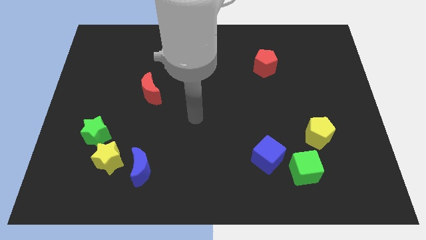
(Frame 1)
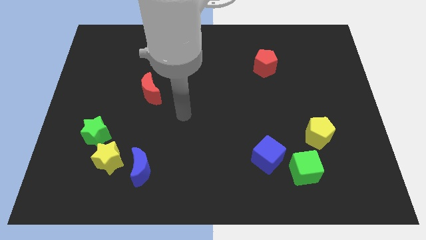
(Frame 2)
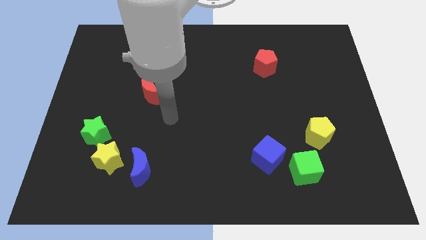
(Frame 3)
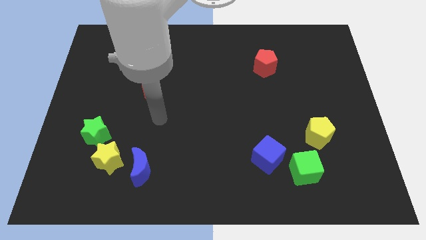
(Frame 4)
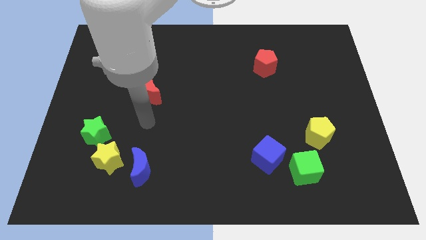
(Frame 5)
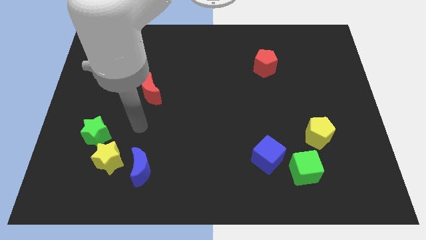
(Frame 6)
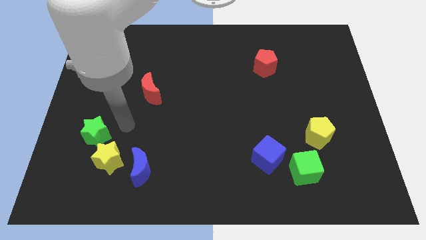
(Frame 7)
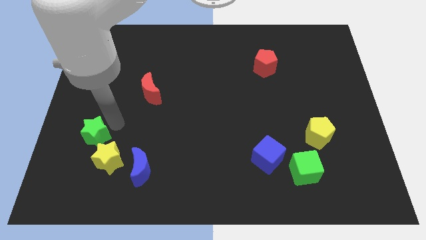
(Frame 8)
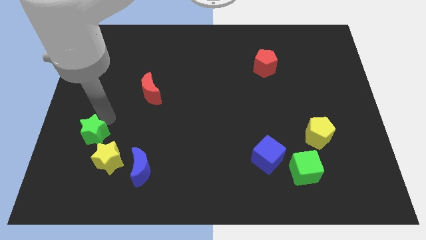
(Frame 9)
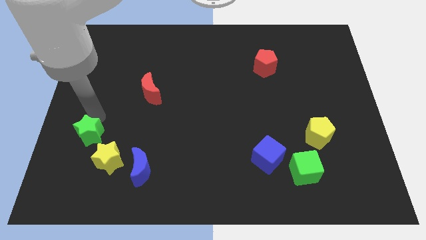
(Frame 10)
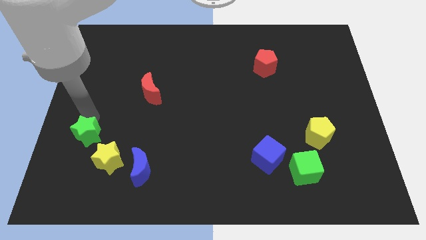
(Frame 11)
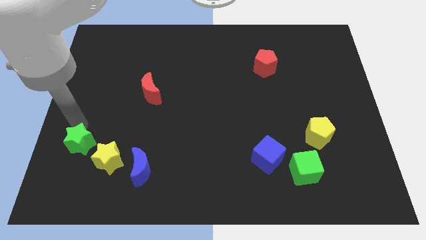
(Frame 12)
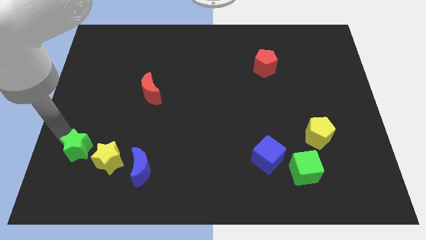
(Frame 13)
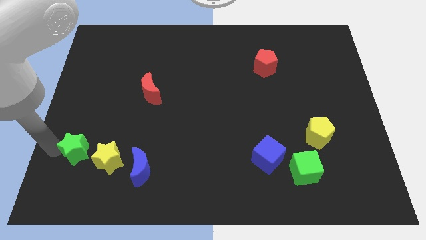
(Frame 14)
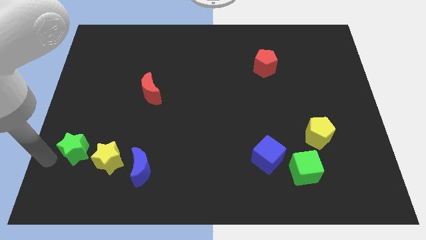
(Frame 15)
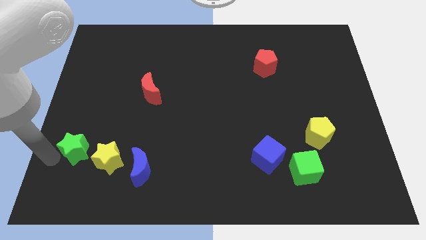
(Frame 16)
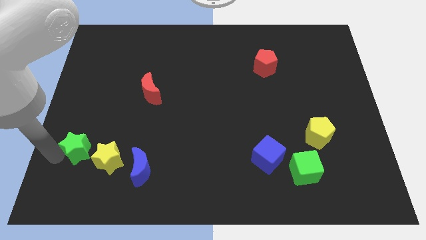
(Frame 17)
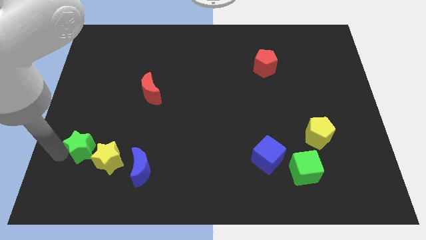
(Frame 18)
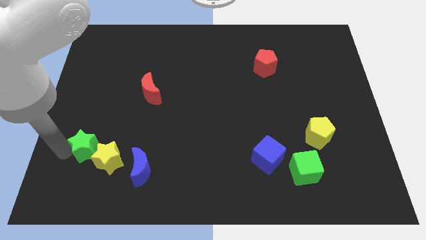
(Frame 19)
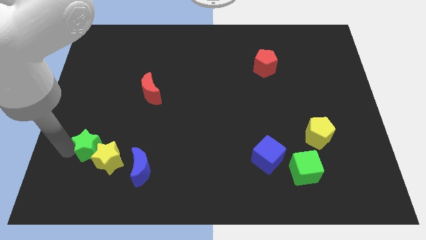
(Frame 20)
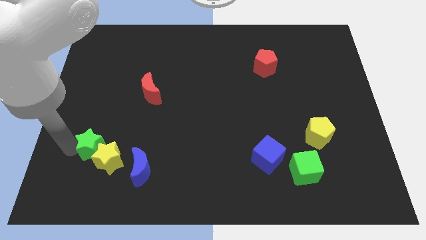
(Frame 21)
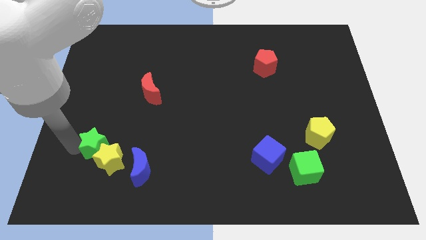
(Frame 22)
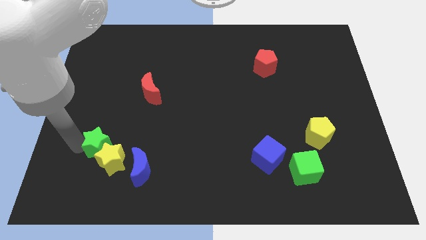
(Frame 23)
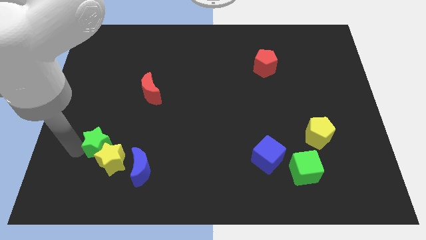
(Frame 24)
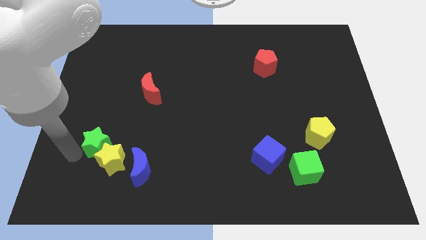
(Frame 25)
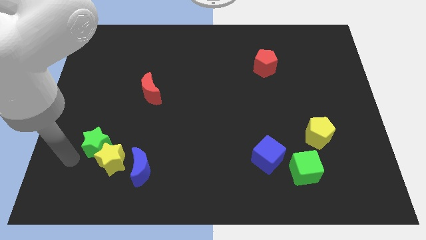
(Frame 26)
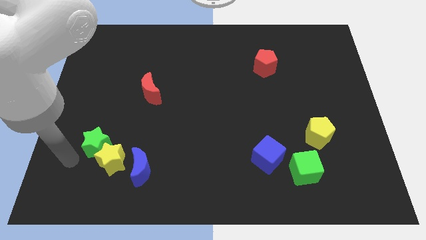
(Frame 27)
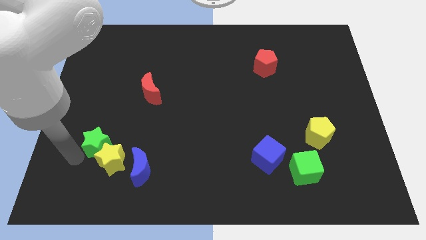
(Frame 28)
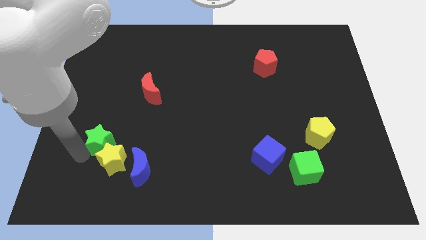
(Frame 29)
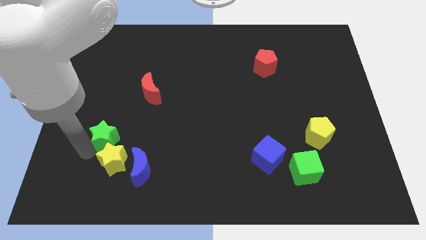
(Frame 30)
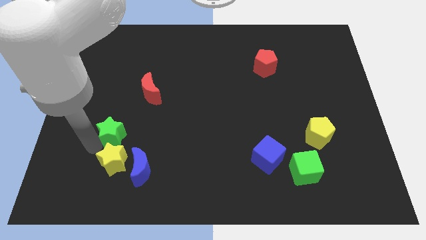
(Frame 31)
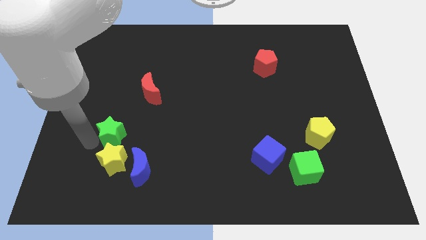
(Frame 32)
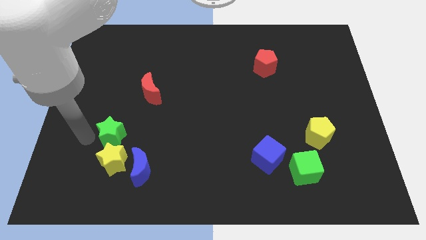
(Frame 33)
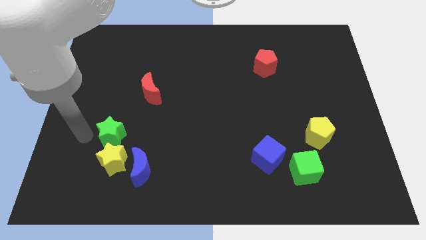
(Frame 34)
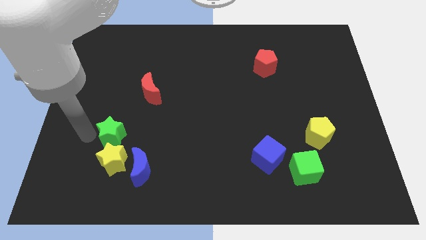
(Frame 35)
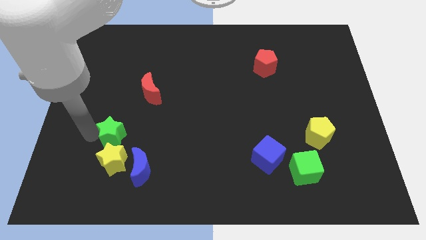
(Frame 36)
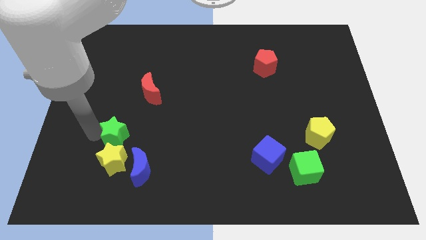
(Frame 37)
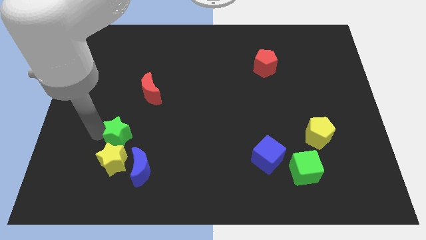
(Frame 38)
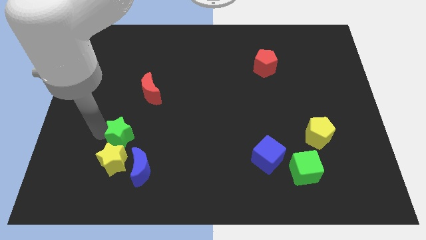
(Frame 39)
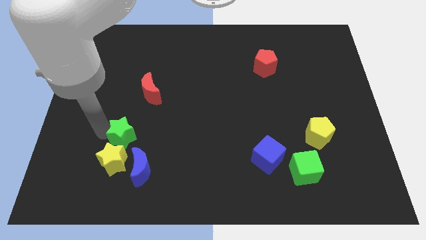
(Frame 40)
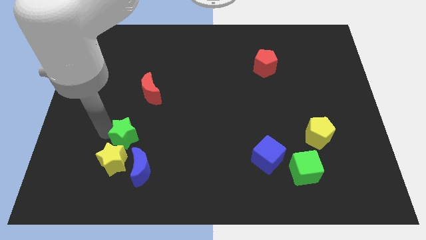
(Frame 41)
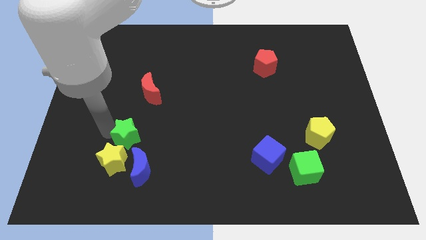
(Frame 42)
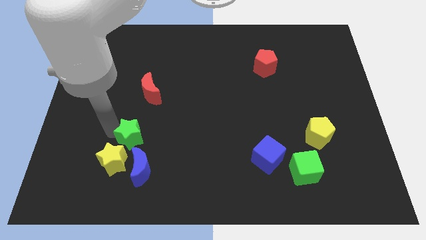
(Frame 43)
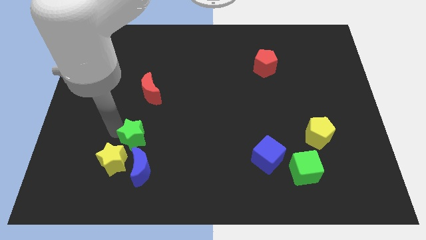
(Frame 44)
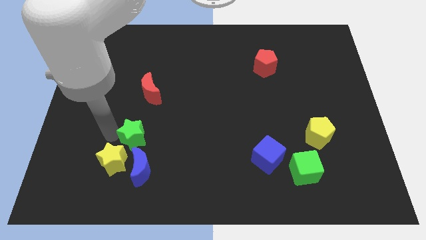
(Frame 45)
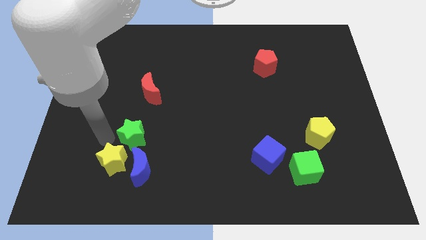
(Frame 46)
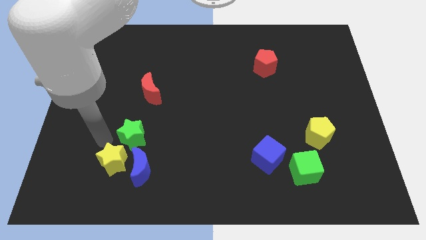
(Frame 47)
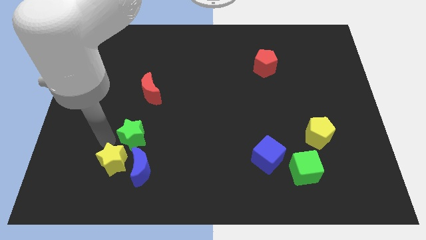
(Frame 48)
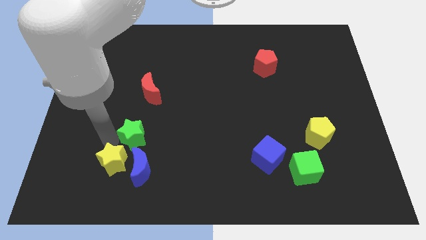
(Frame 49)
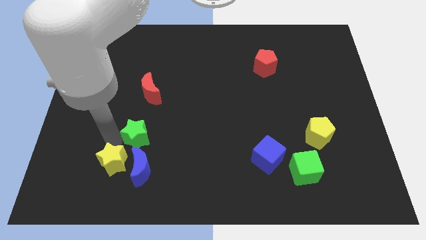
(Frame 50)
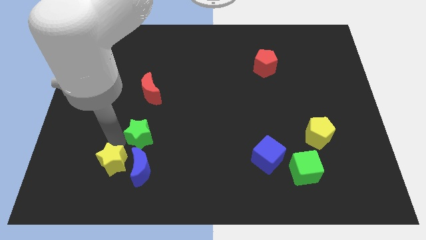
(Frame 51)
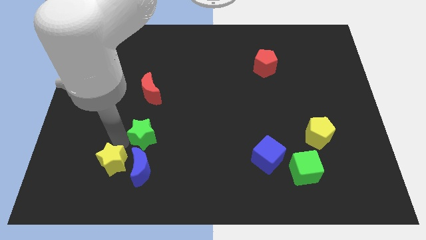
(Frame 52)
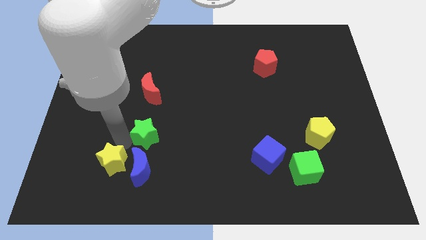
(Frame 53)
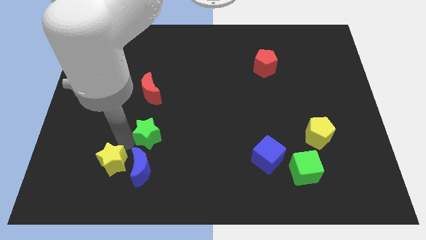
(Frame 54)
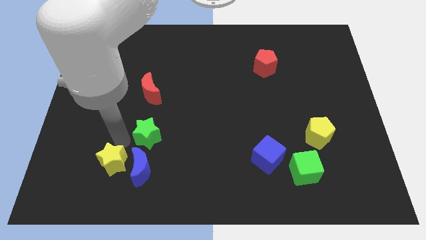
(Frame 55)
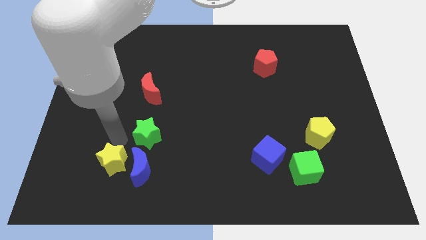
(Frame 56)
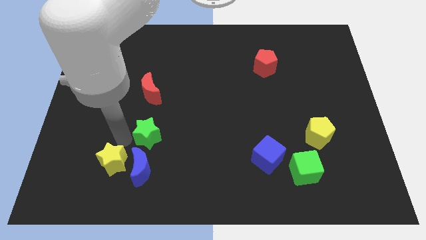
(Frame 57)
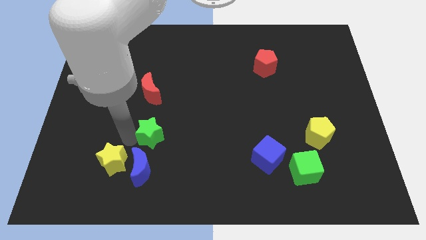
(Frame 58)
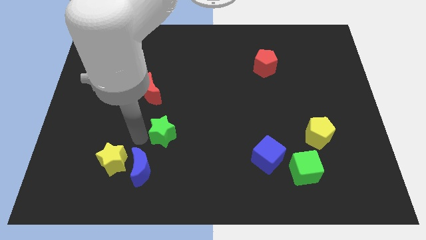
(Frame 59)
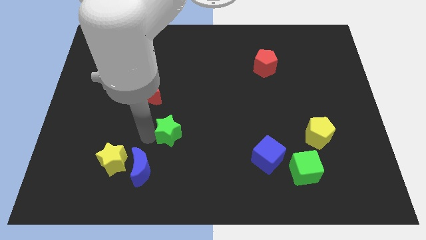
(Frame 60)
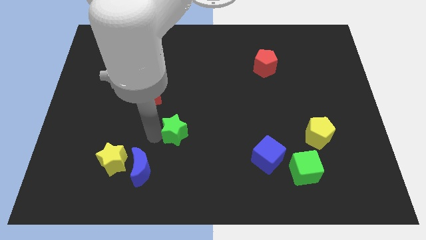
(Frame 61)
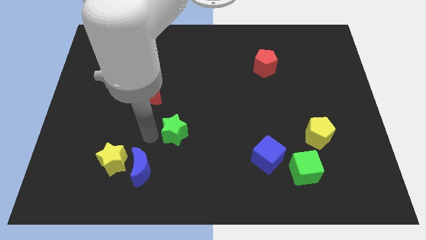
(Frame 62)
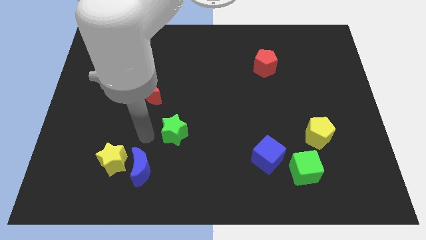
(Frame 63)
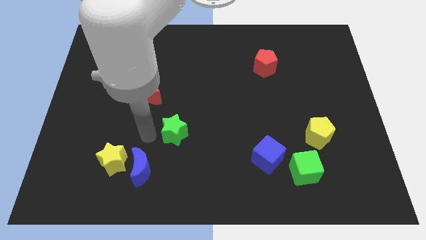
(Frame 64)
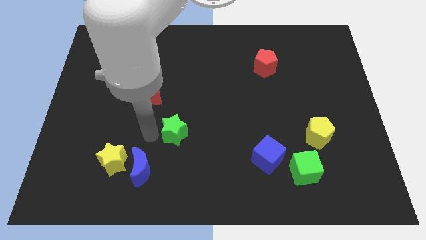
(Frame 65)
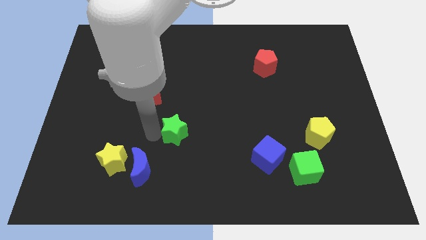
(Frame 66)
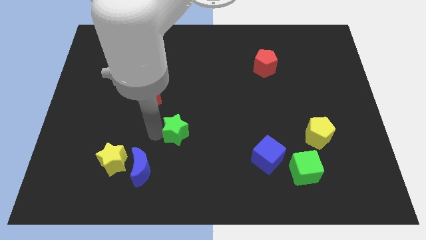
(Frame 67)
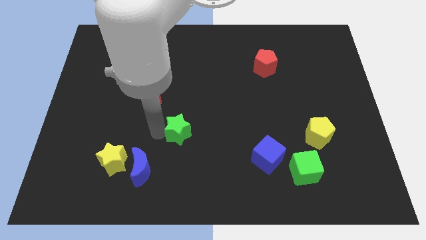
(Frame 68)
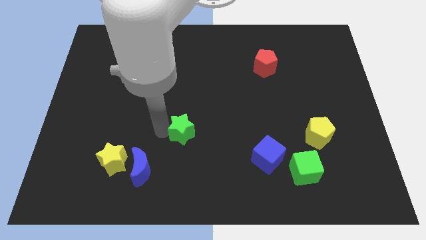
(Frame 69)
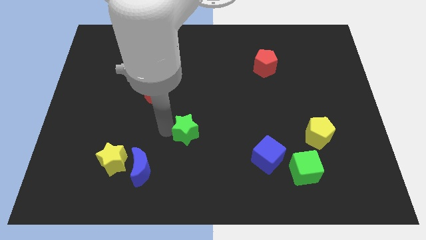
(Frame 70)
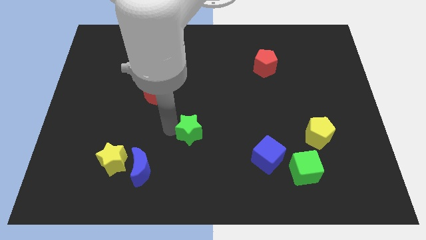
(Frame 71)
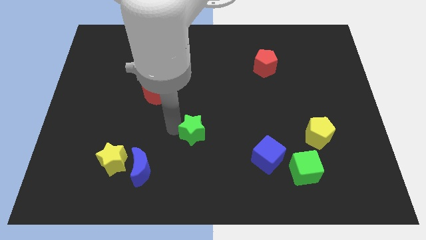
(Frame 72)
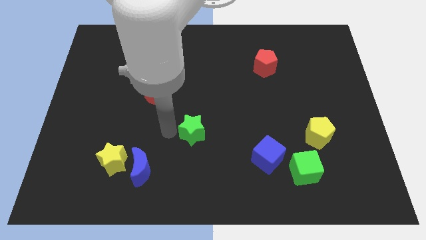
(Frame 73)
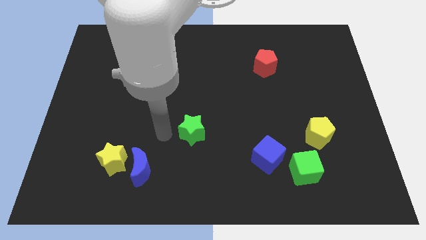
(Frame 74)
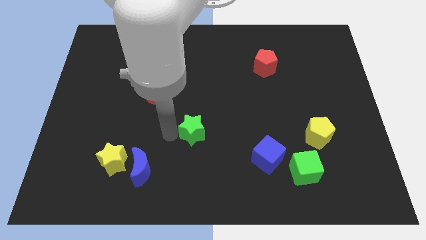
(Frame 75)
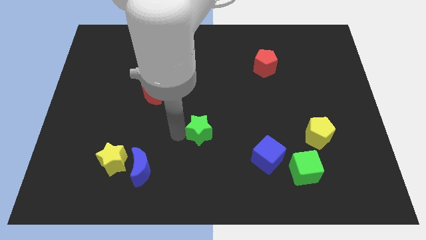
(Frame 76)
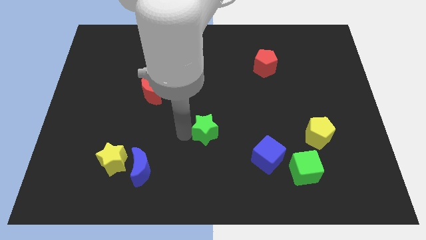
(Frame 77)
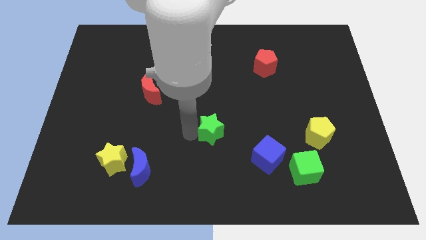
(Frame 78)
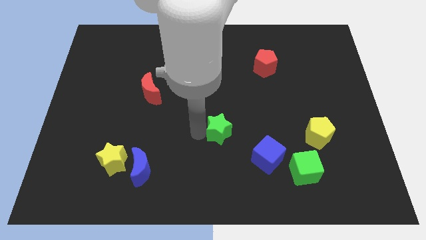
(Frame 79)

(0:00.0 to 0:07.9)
put the green star to the top left of the blue cube
